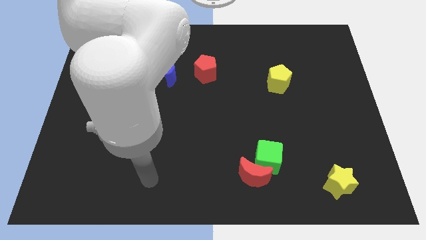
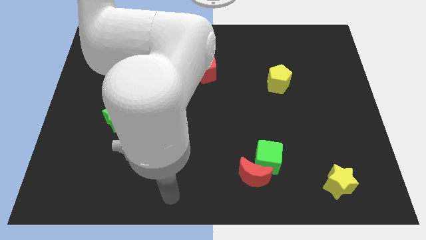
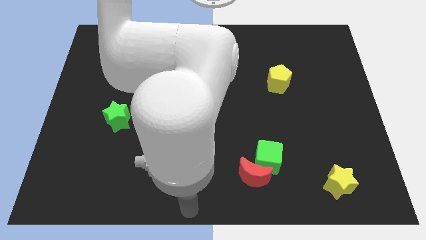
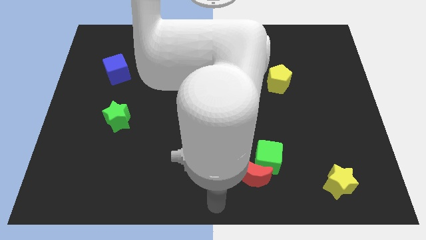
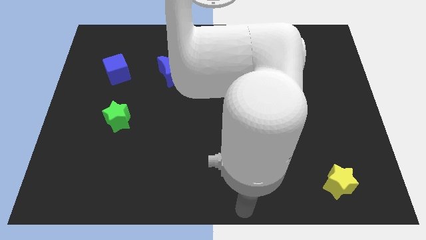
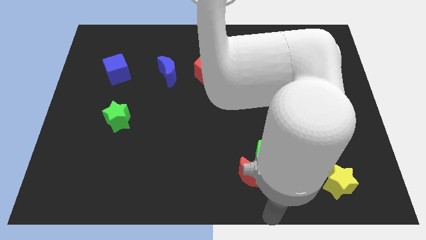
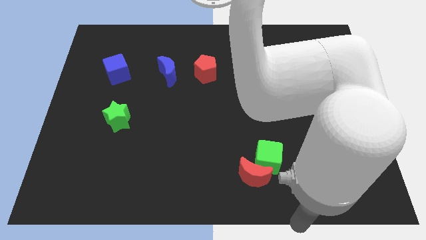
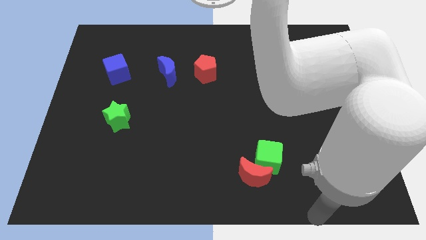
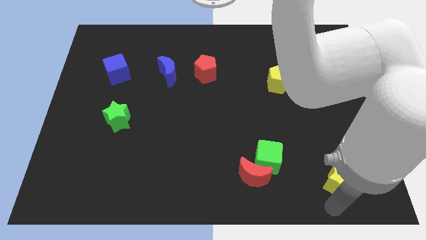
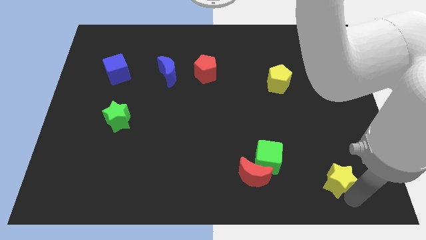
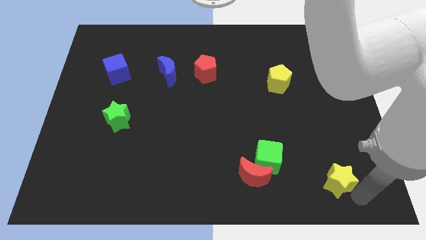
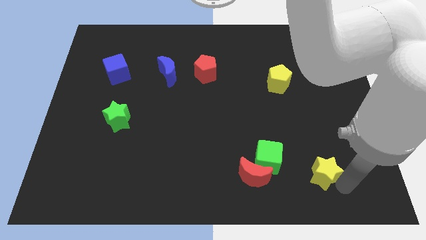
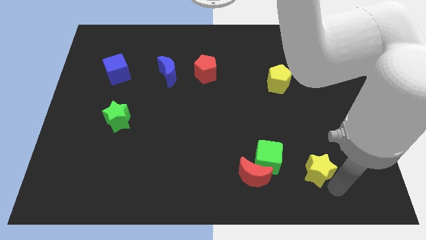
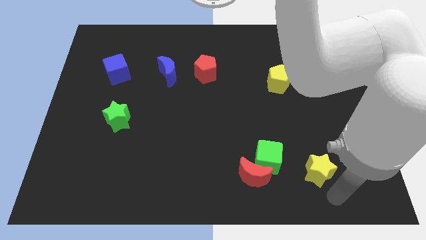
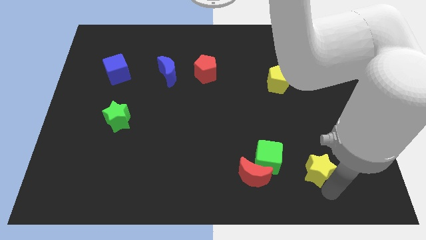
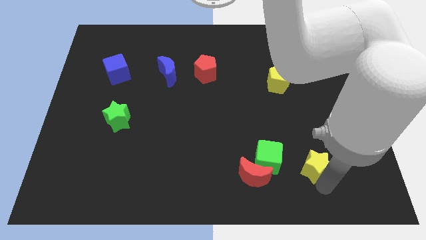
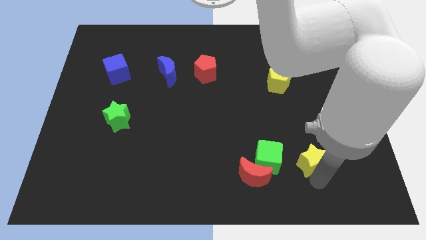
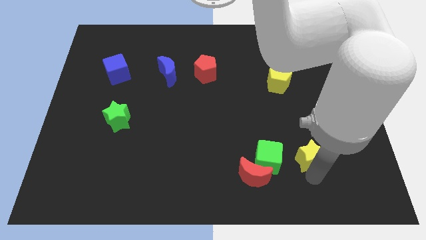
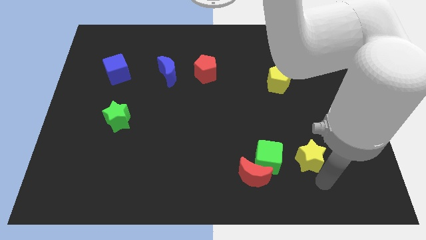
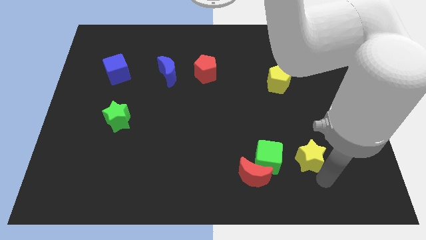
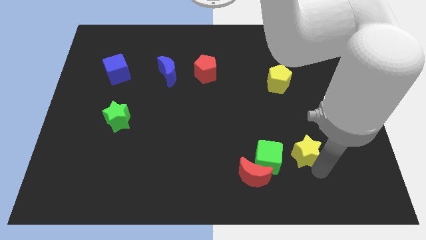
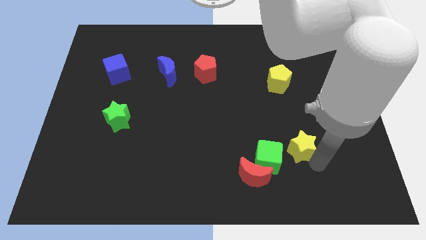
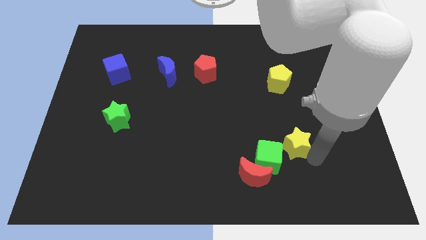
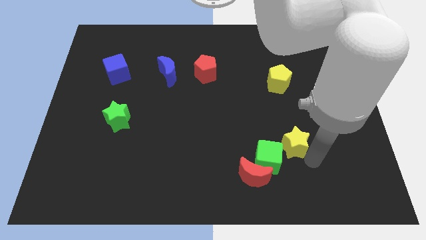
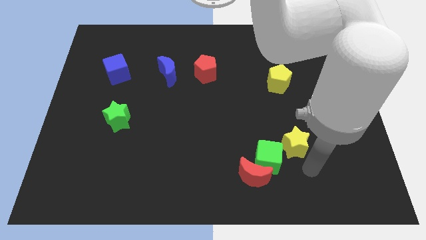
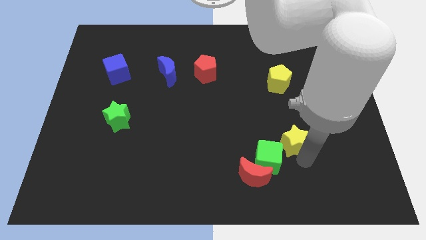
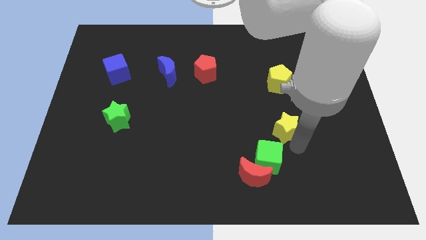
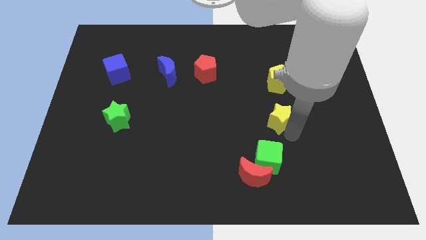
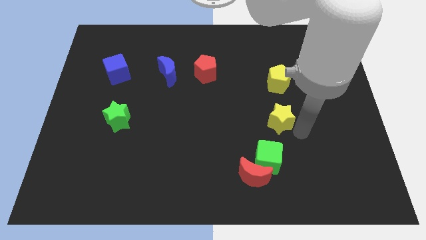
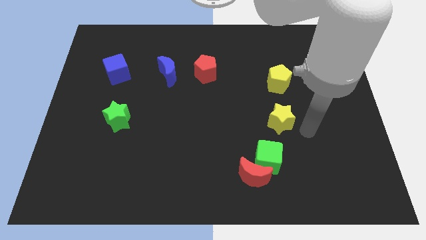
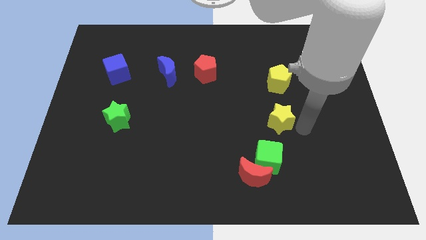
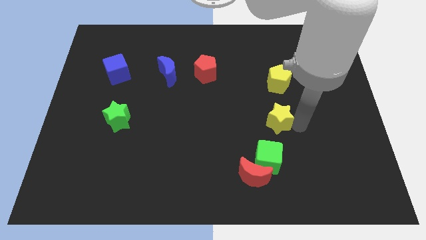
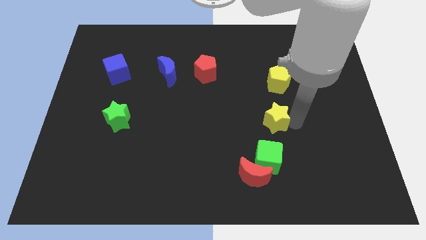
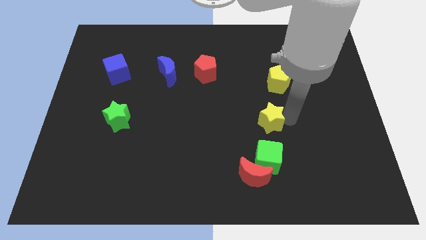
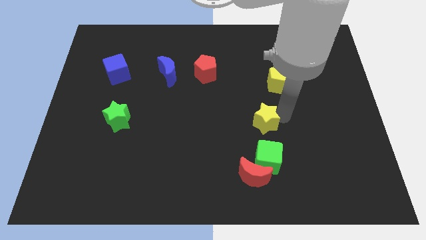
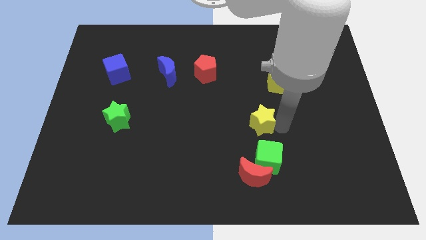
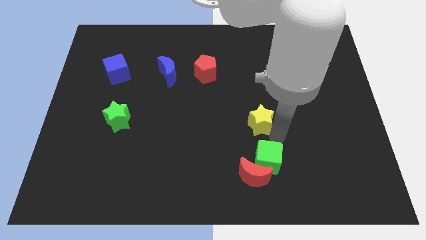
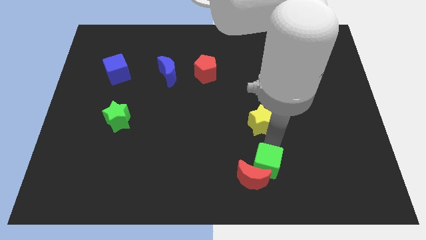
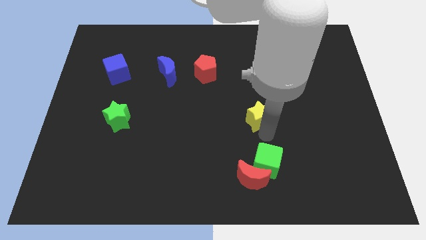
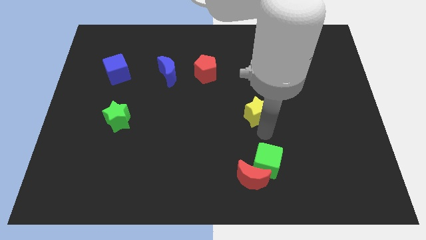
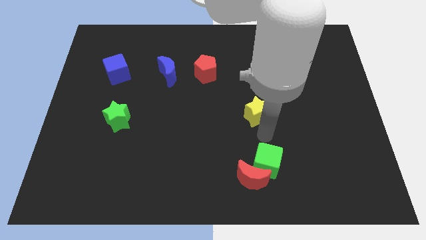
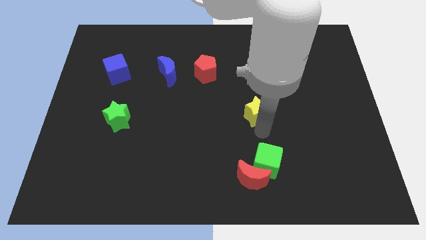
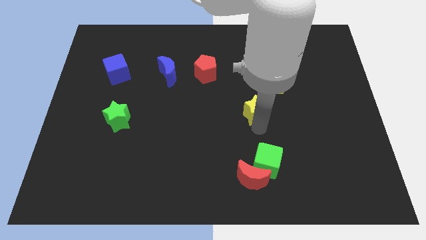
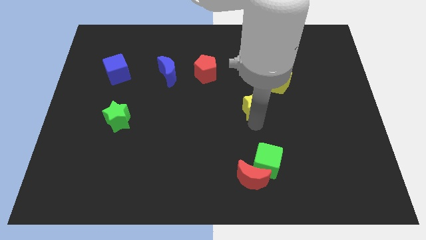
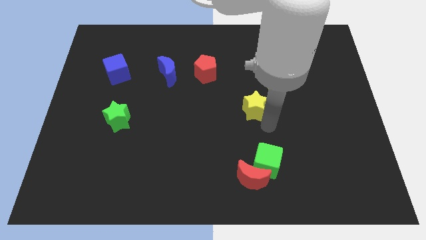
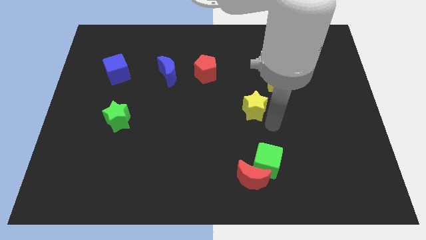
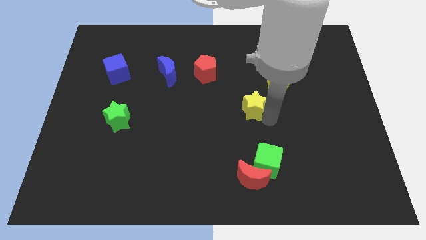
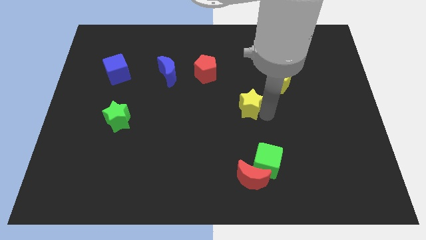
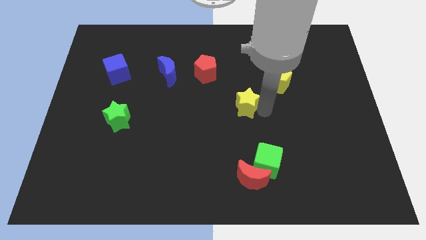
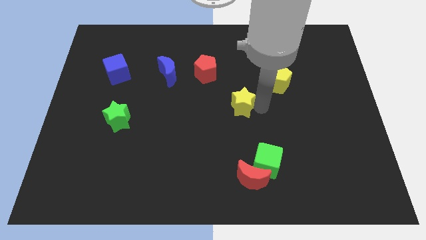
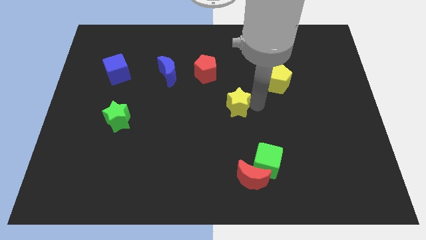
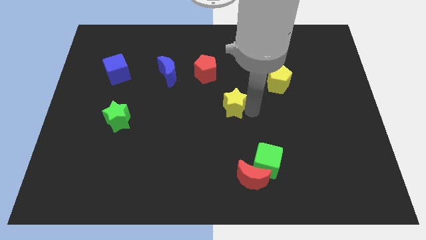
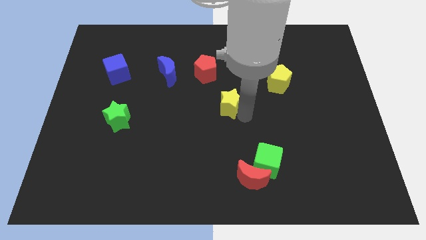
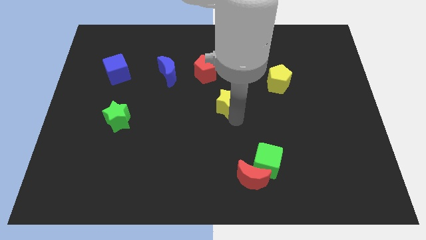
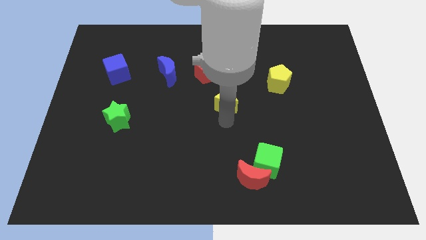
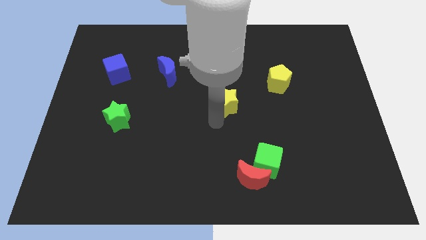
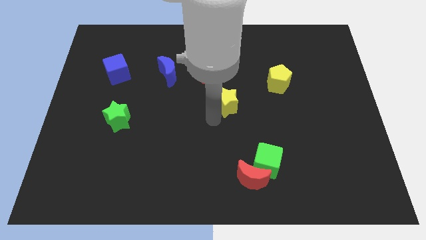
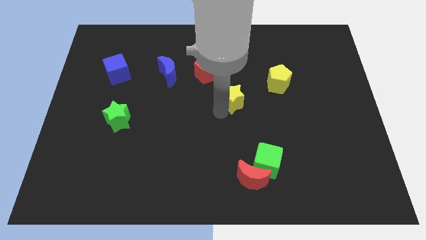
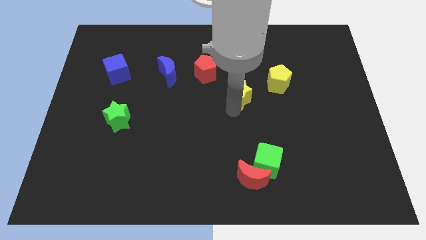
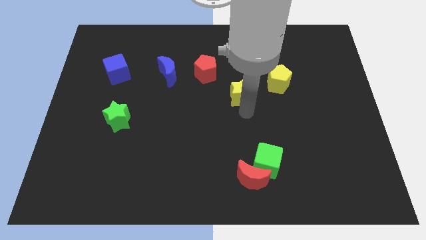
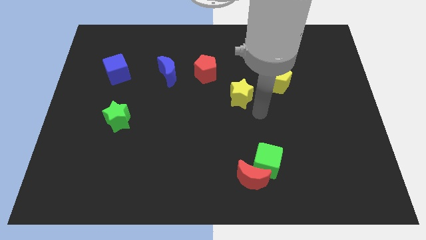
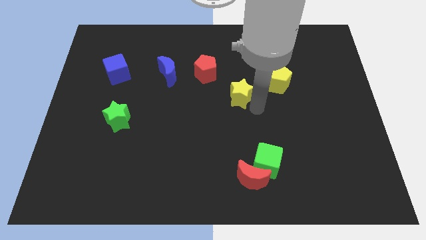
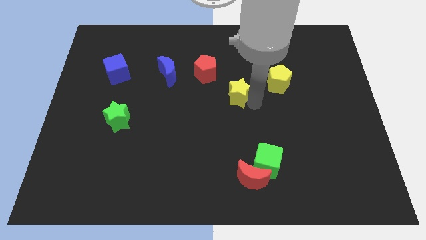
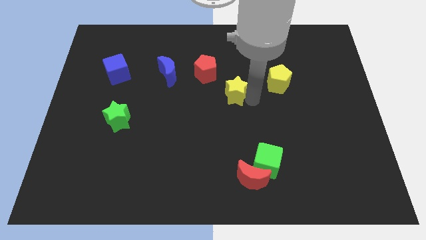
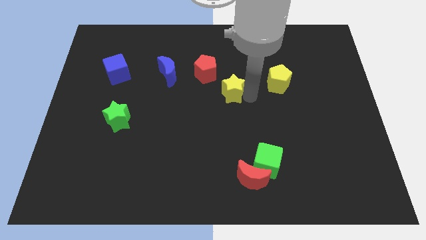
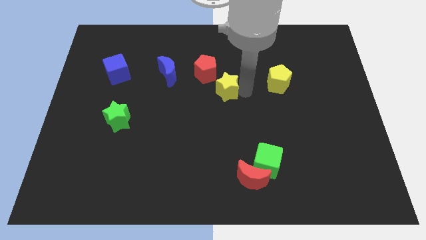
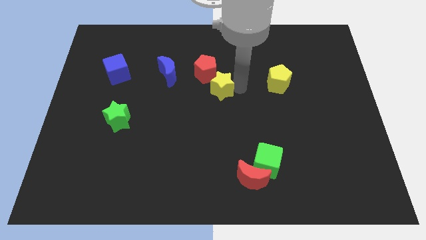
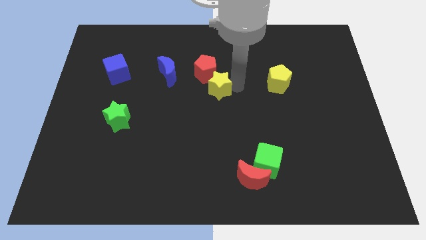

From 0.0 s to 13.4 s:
move the yellow star towards the red pentagon

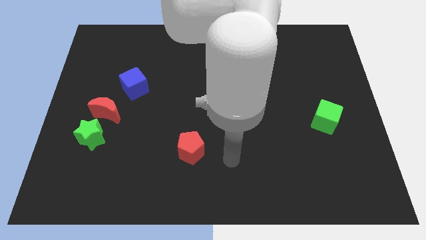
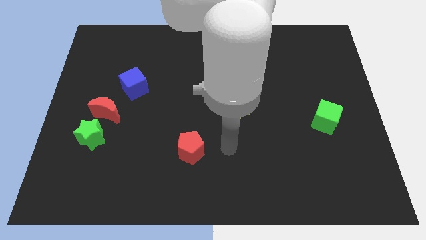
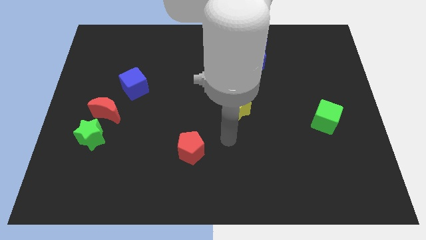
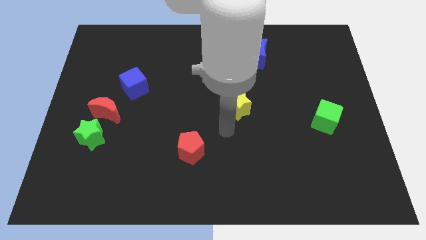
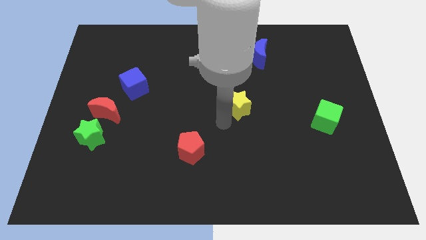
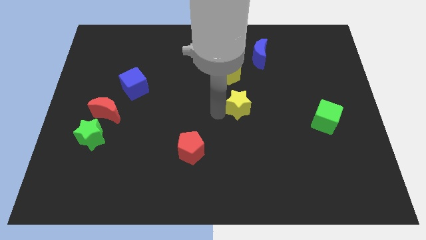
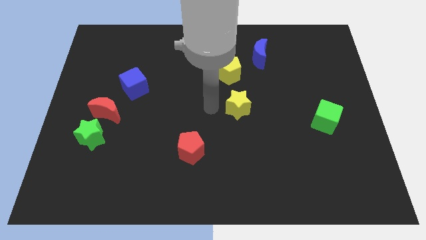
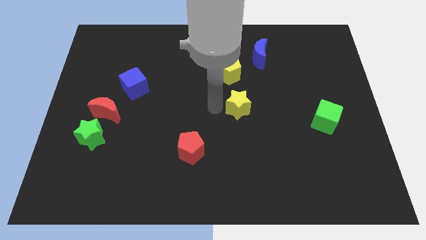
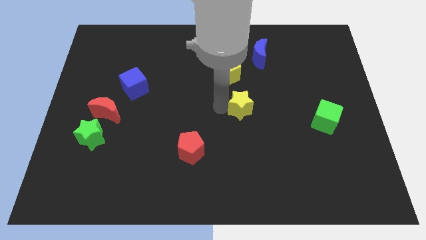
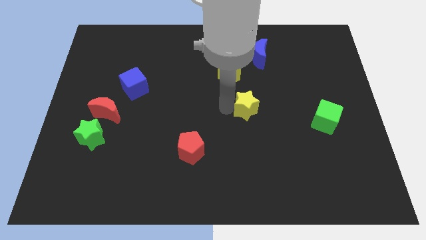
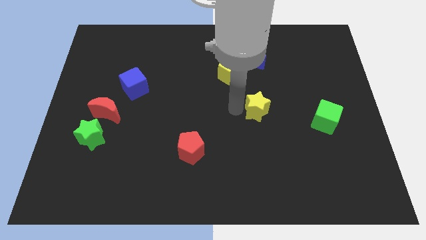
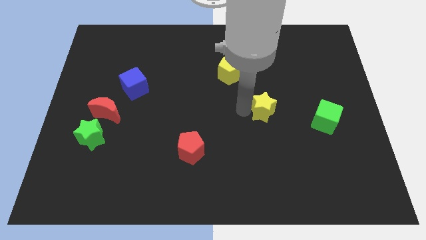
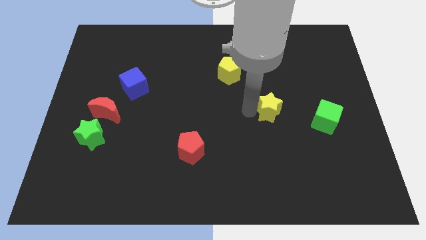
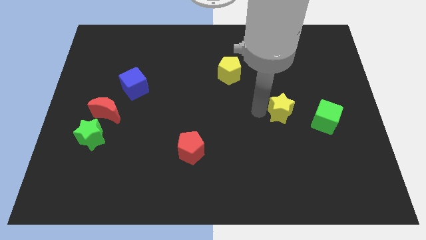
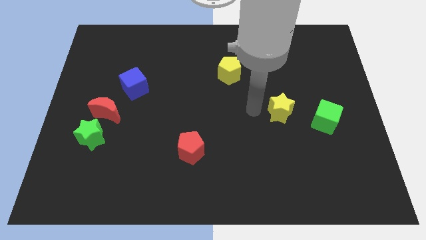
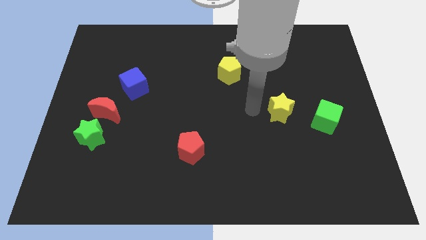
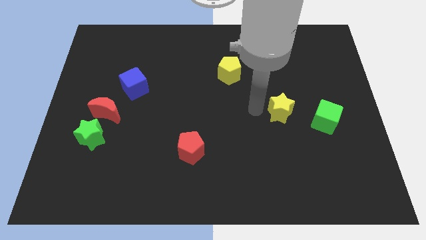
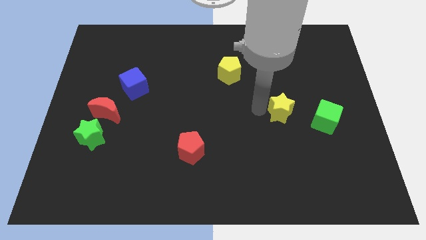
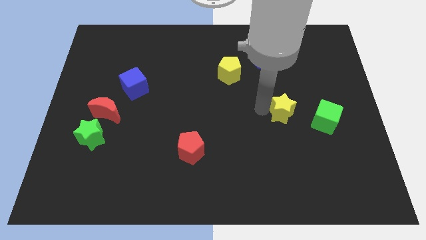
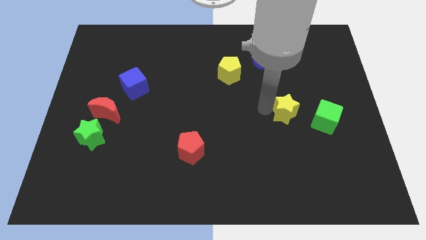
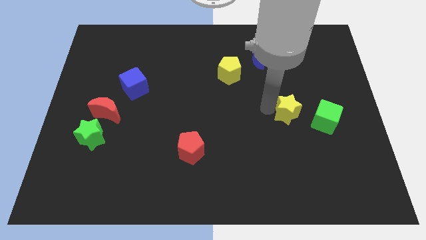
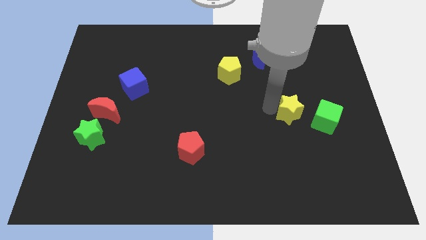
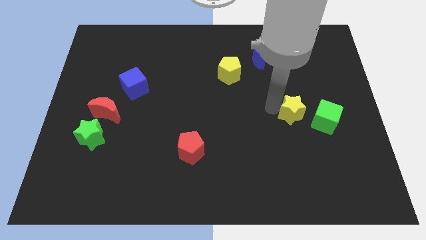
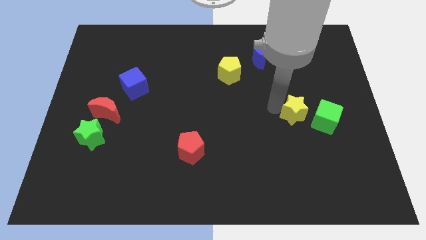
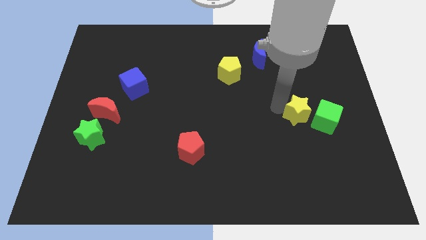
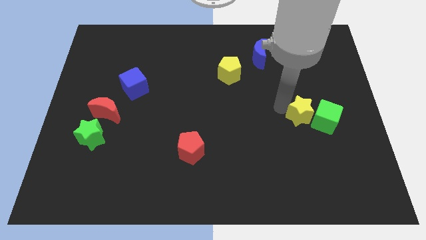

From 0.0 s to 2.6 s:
move the yellow star to the green cube
